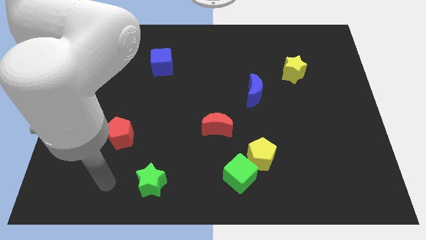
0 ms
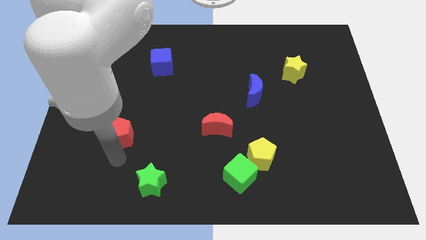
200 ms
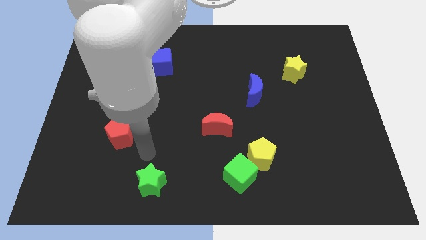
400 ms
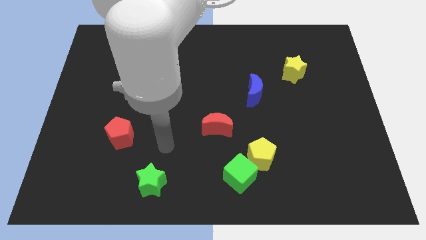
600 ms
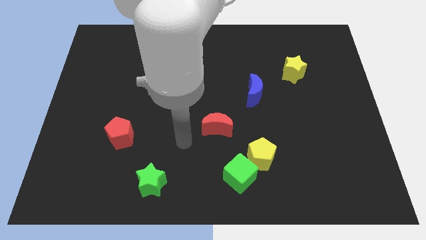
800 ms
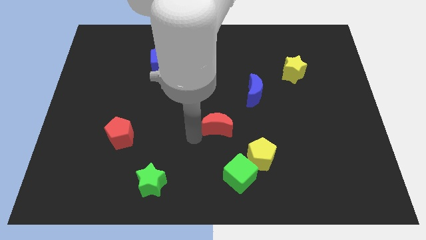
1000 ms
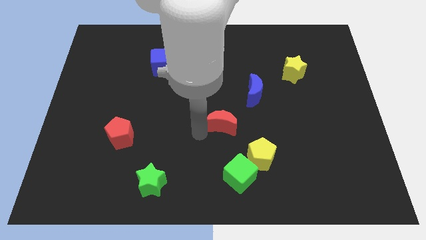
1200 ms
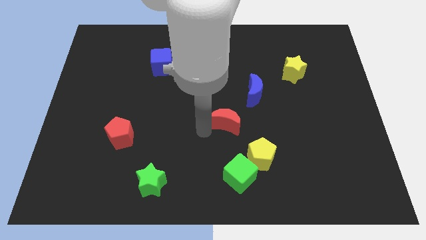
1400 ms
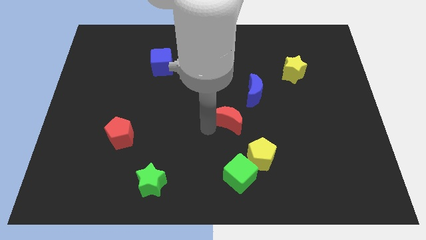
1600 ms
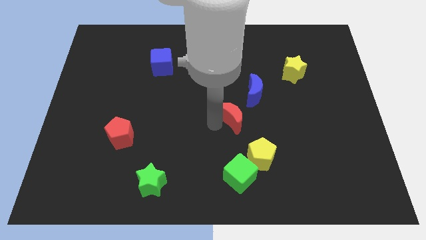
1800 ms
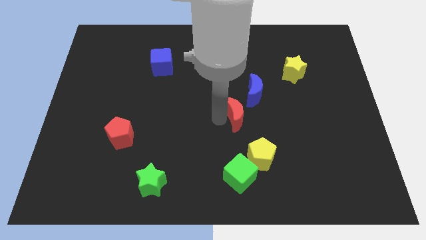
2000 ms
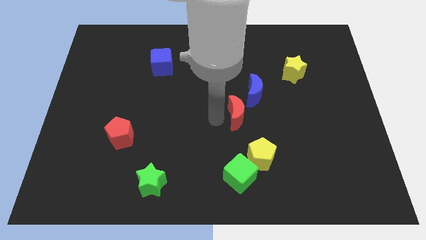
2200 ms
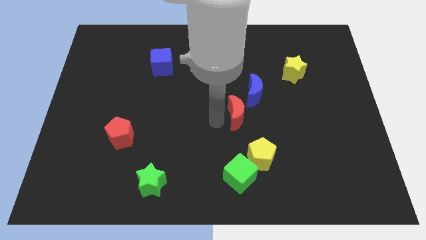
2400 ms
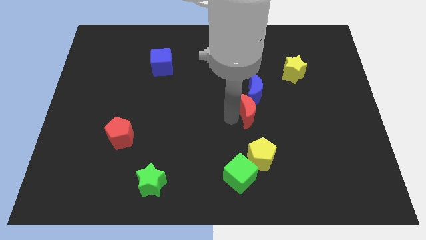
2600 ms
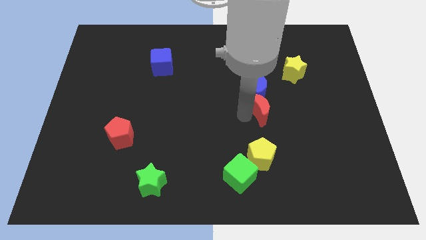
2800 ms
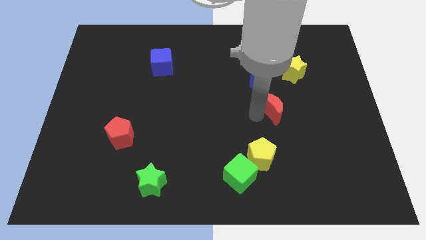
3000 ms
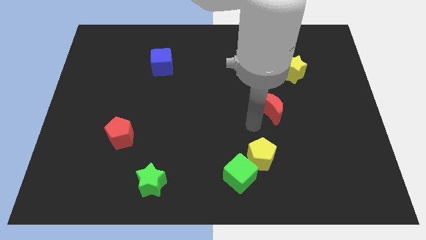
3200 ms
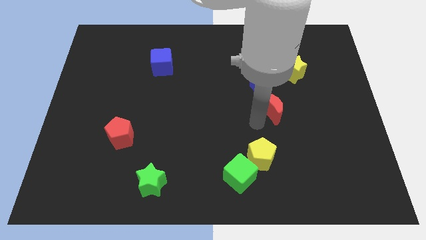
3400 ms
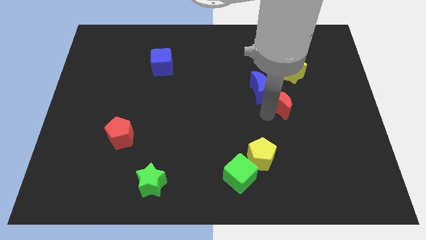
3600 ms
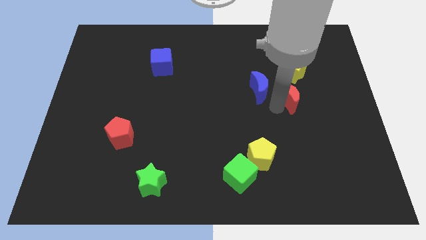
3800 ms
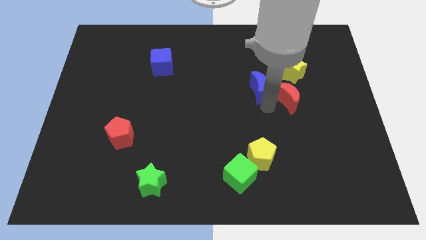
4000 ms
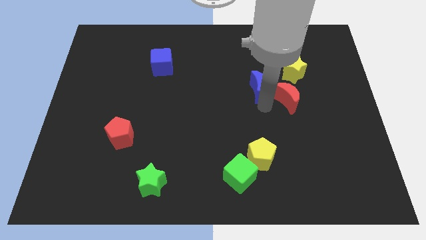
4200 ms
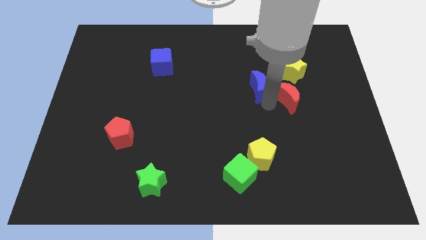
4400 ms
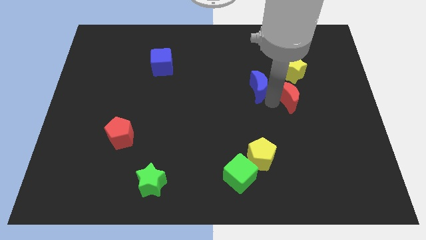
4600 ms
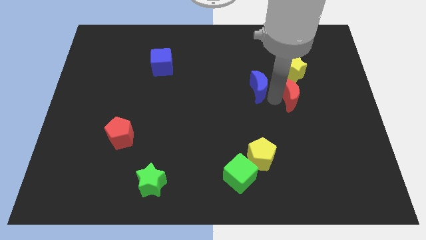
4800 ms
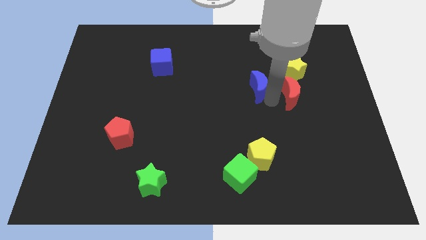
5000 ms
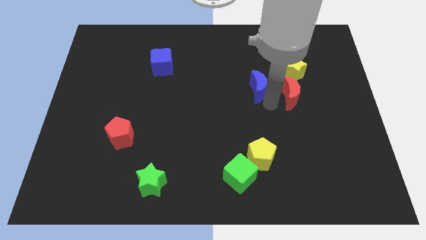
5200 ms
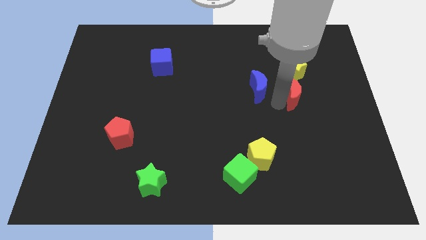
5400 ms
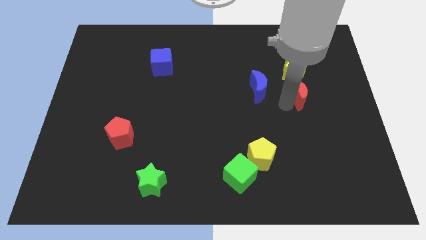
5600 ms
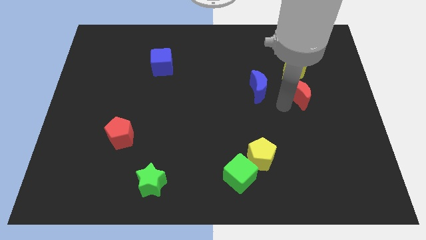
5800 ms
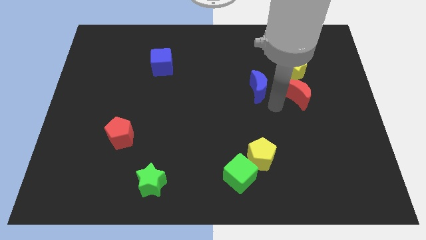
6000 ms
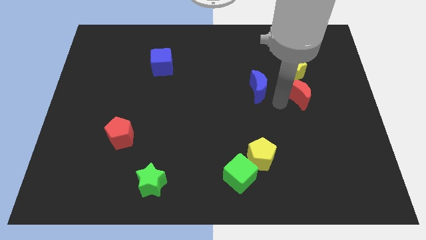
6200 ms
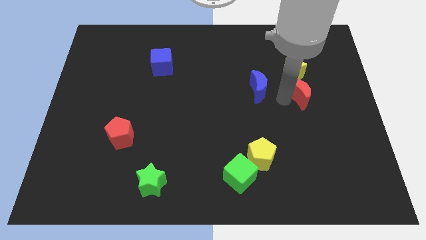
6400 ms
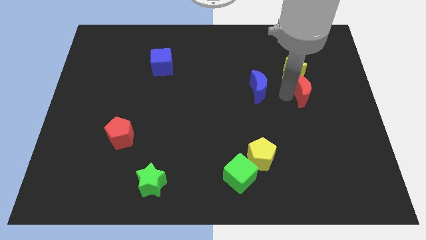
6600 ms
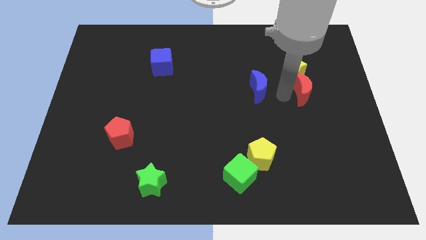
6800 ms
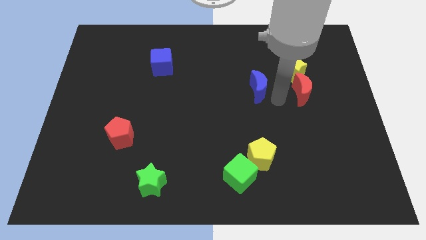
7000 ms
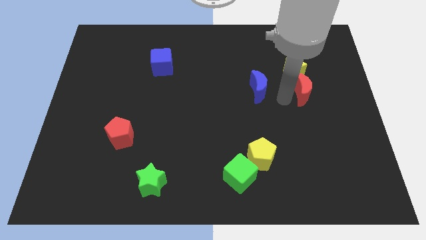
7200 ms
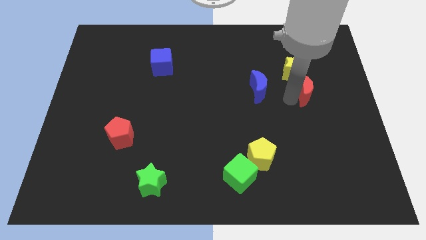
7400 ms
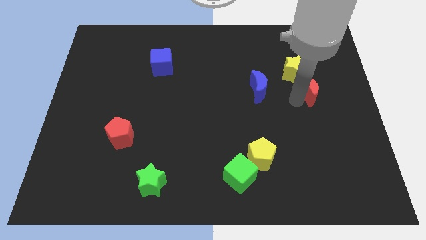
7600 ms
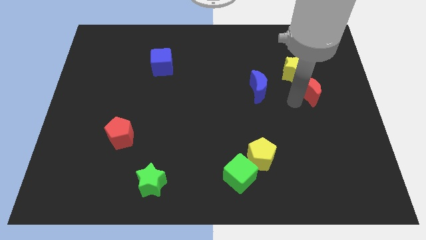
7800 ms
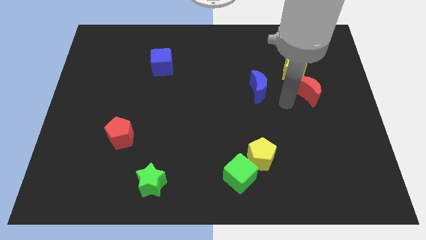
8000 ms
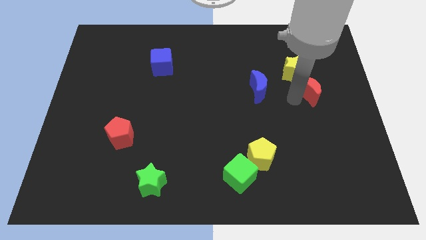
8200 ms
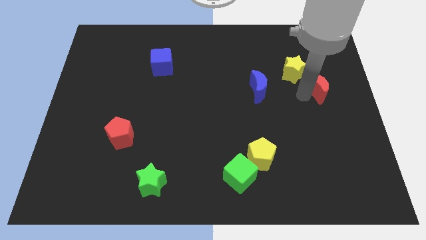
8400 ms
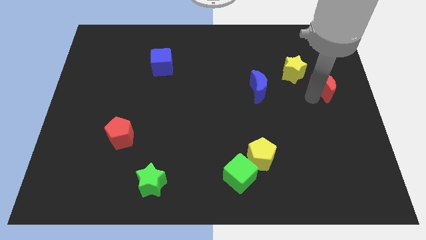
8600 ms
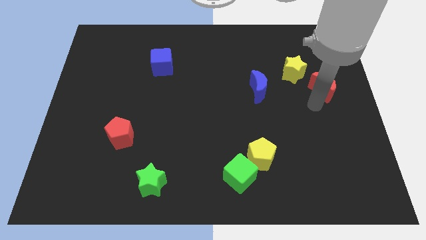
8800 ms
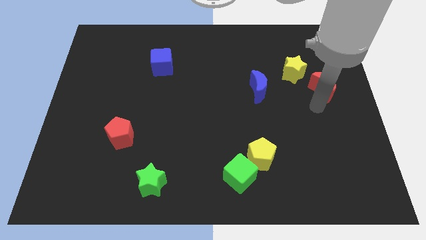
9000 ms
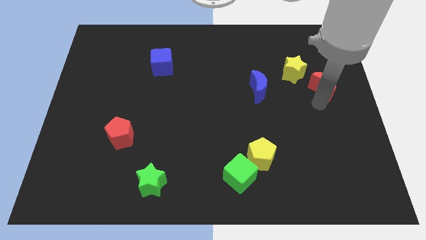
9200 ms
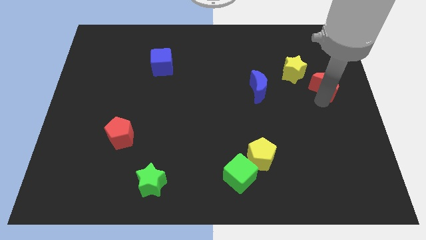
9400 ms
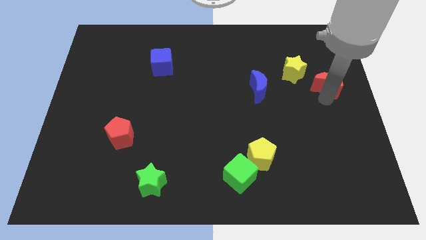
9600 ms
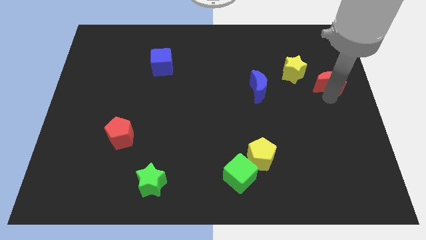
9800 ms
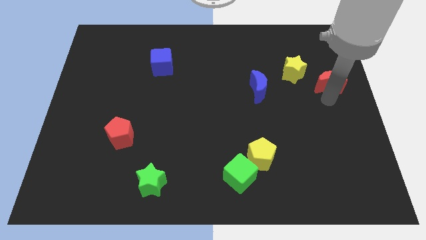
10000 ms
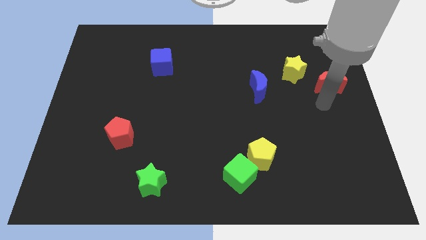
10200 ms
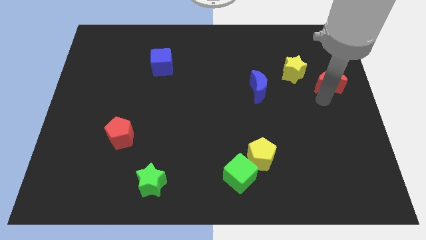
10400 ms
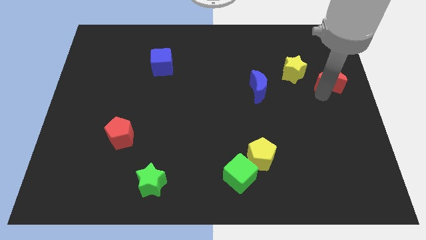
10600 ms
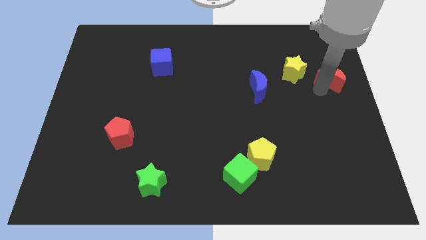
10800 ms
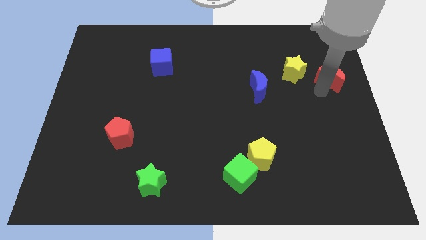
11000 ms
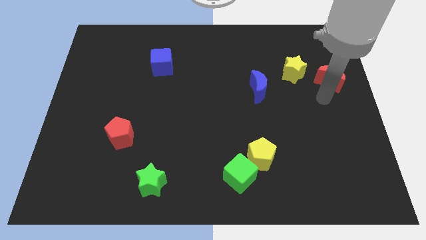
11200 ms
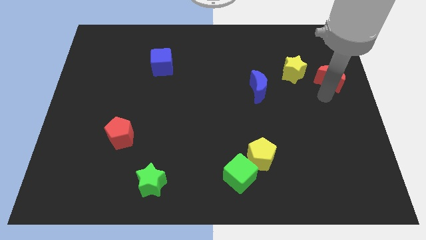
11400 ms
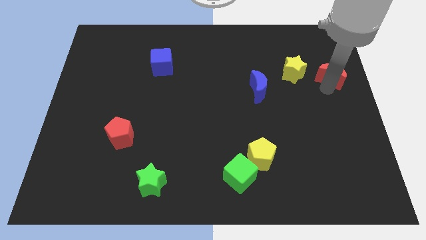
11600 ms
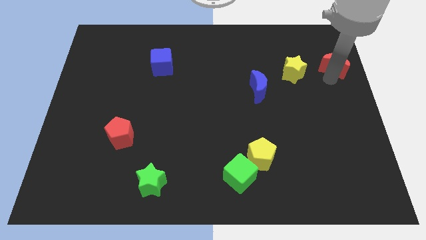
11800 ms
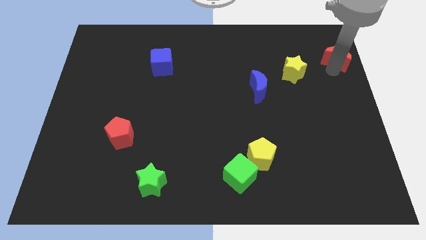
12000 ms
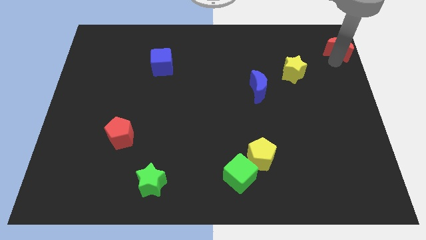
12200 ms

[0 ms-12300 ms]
slide the red moon to the top right
